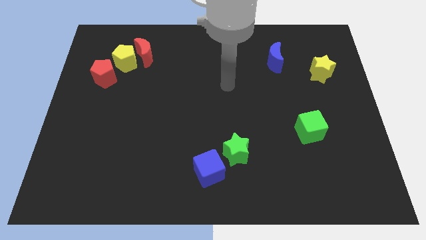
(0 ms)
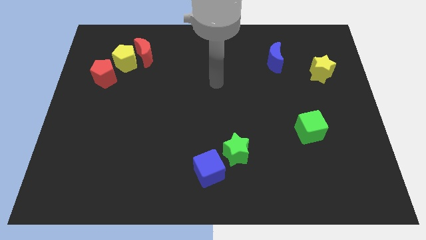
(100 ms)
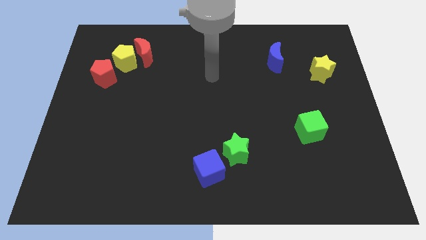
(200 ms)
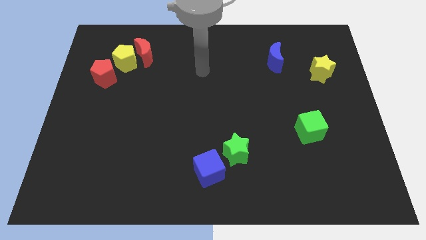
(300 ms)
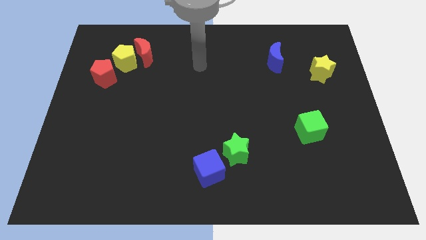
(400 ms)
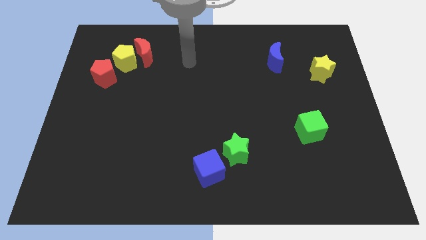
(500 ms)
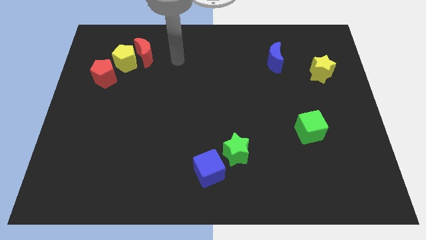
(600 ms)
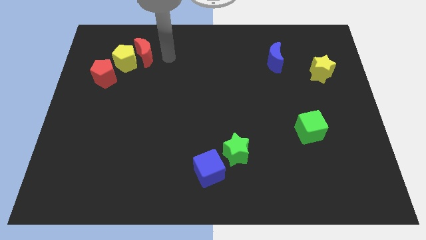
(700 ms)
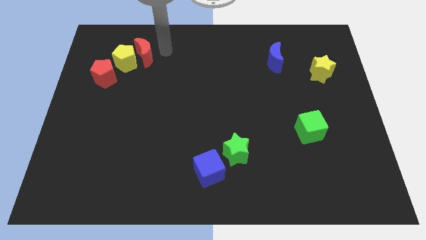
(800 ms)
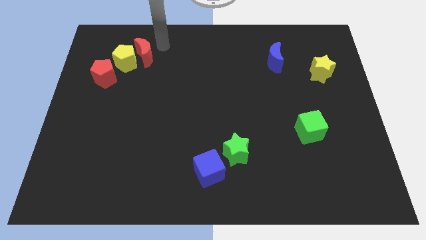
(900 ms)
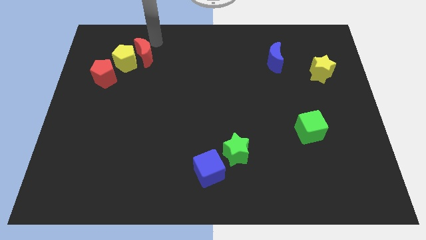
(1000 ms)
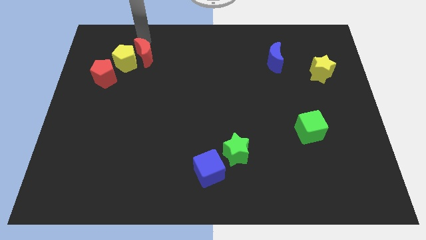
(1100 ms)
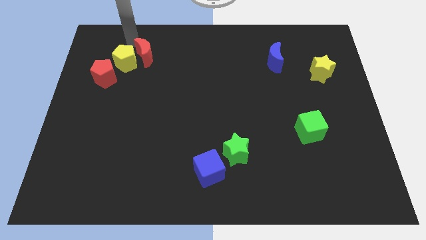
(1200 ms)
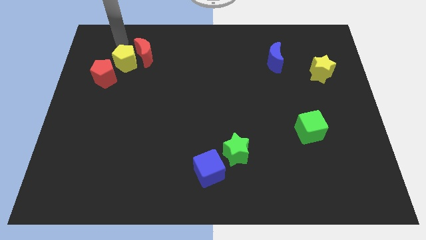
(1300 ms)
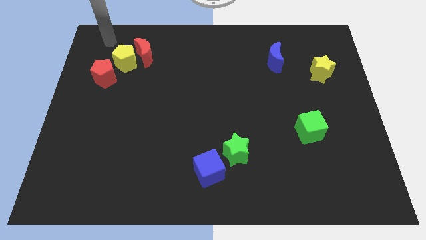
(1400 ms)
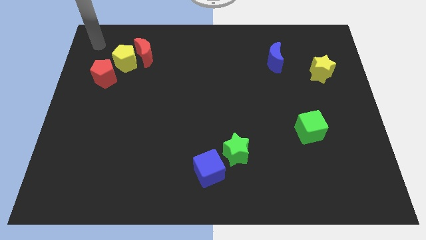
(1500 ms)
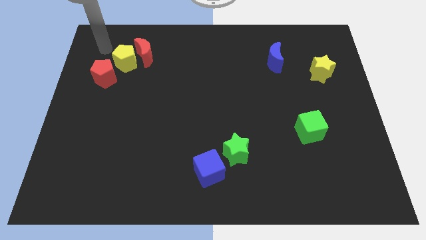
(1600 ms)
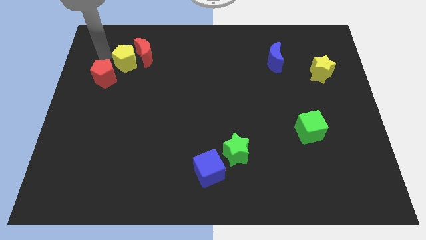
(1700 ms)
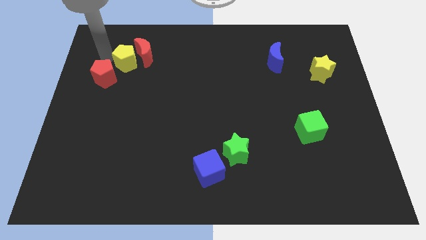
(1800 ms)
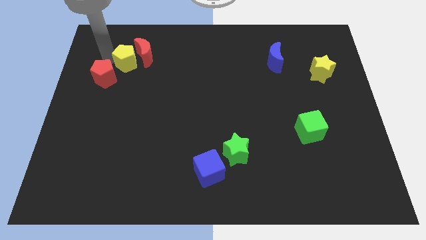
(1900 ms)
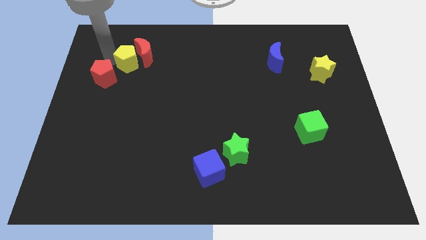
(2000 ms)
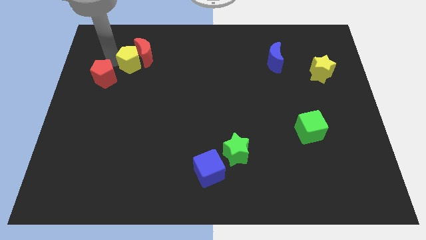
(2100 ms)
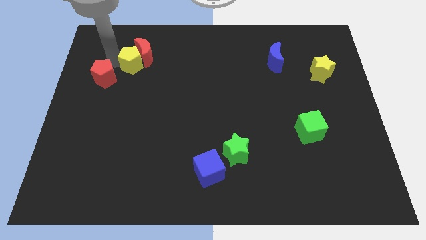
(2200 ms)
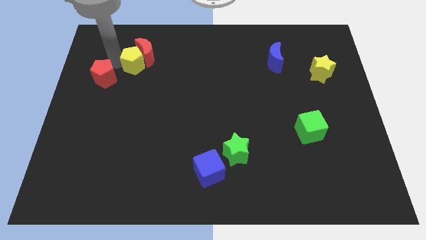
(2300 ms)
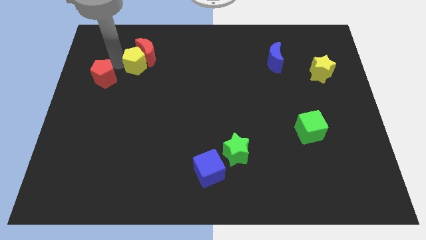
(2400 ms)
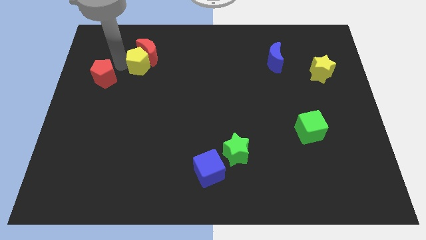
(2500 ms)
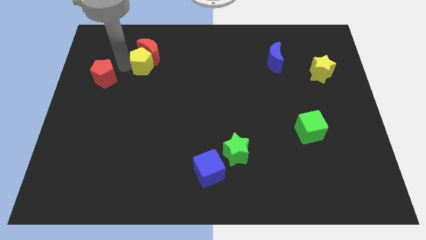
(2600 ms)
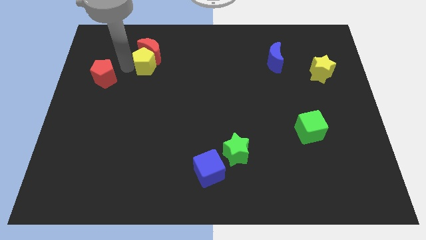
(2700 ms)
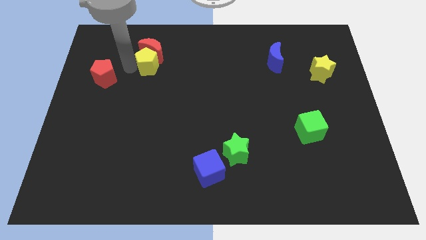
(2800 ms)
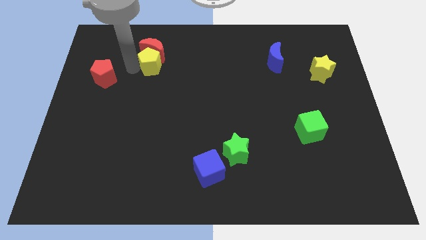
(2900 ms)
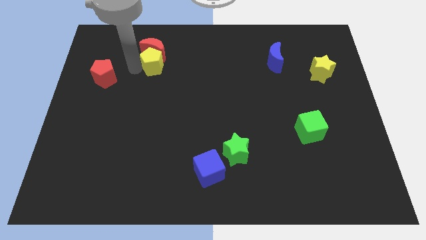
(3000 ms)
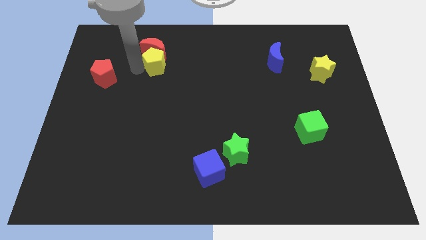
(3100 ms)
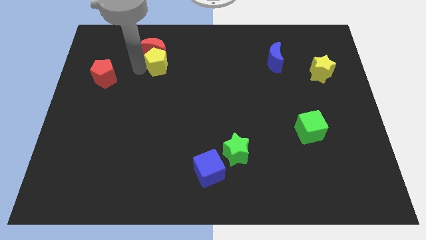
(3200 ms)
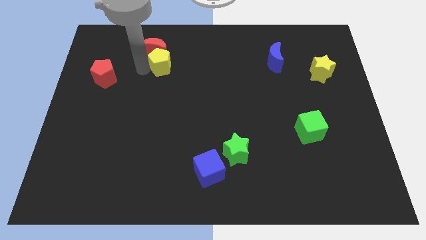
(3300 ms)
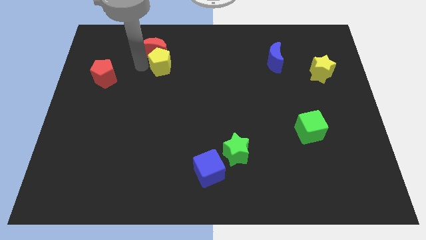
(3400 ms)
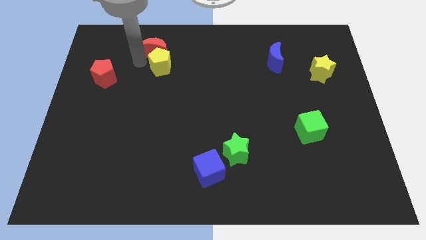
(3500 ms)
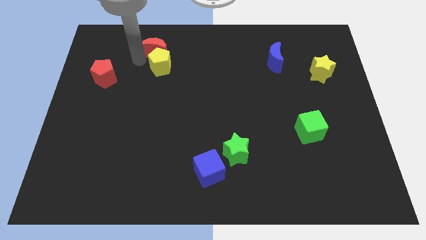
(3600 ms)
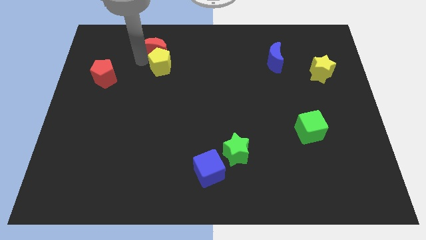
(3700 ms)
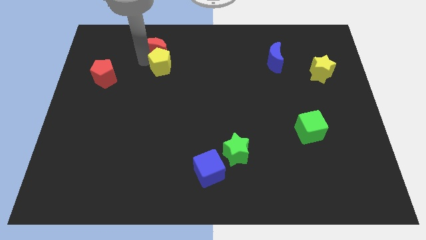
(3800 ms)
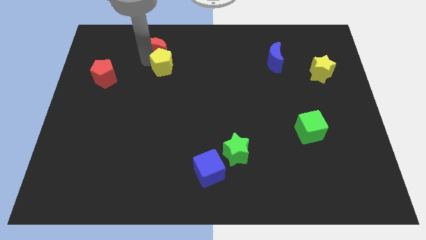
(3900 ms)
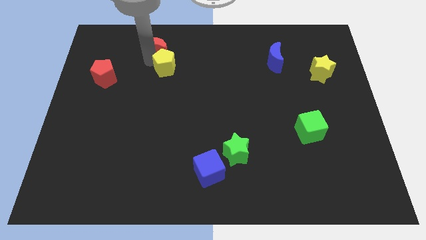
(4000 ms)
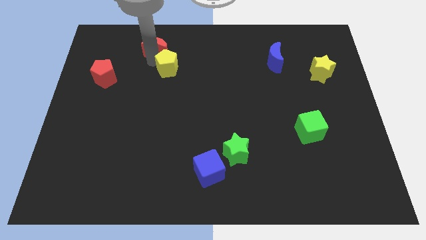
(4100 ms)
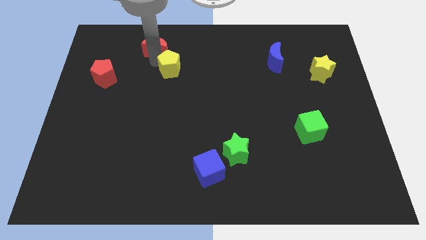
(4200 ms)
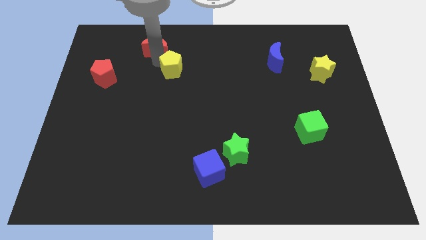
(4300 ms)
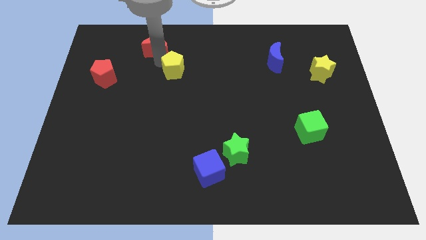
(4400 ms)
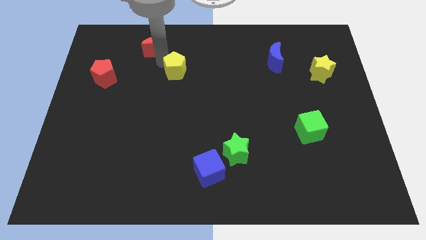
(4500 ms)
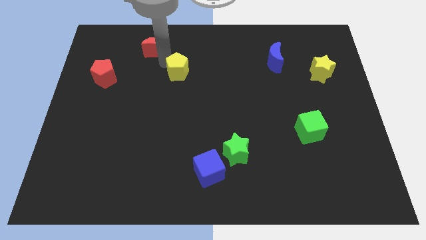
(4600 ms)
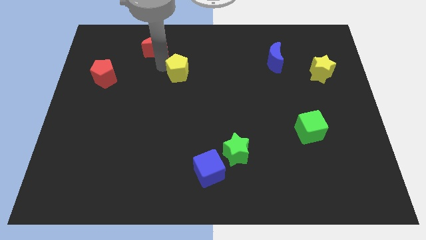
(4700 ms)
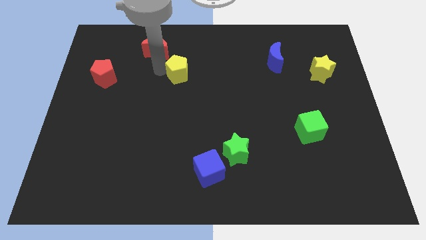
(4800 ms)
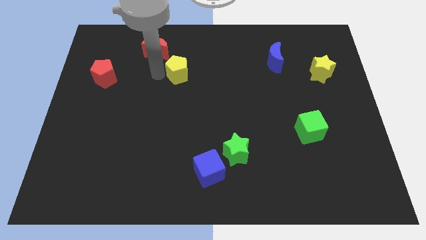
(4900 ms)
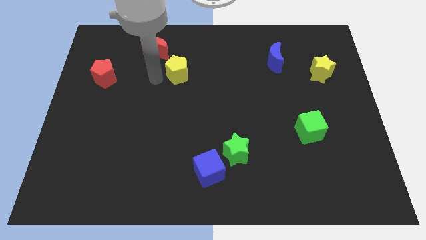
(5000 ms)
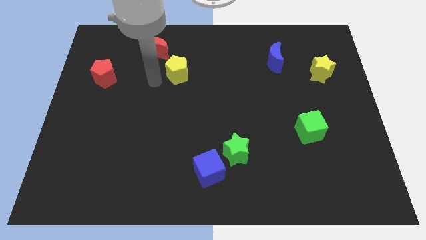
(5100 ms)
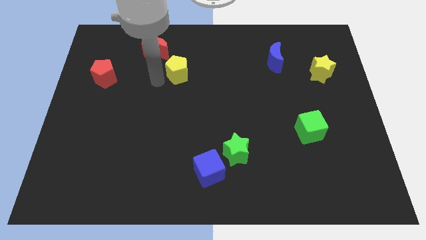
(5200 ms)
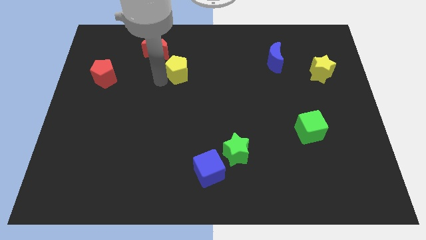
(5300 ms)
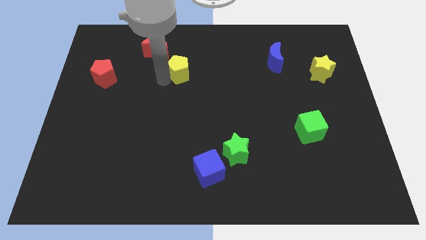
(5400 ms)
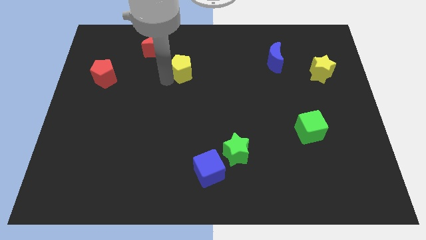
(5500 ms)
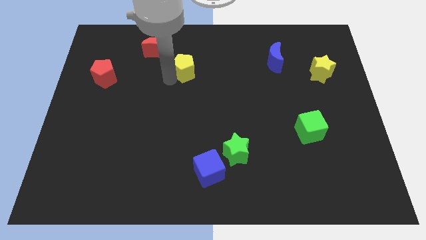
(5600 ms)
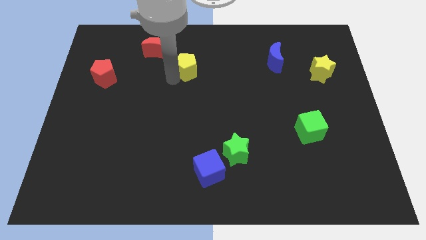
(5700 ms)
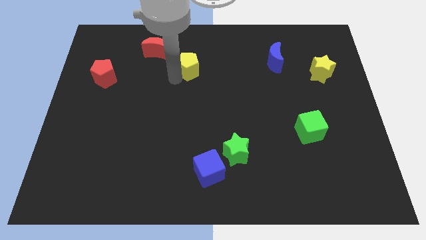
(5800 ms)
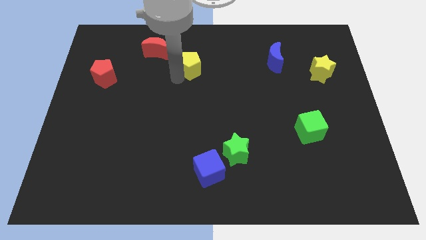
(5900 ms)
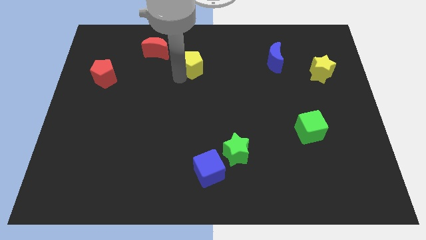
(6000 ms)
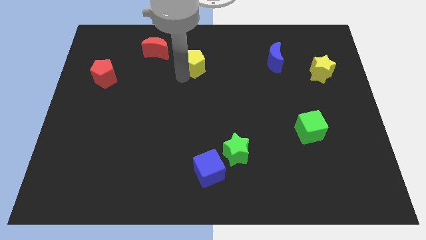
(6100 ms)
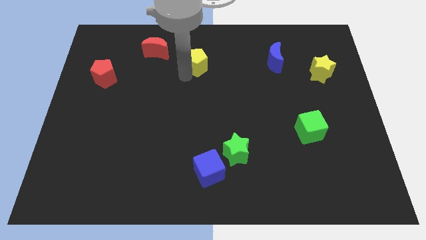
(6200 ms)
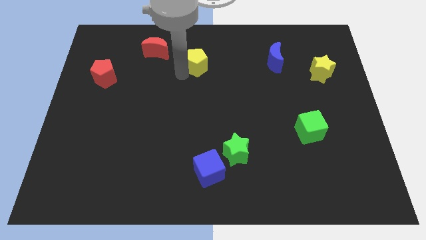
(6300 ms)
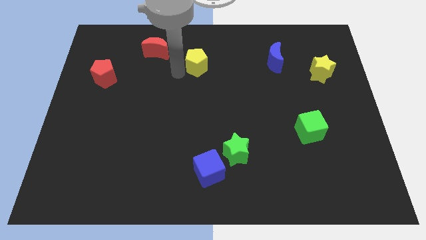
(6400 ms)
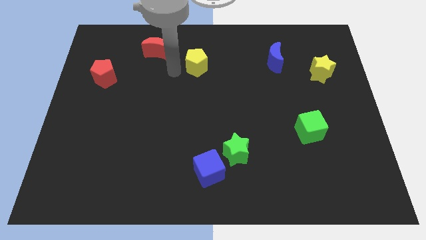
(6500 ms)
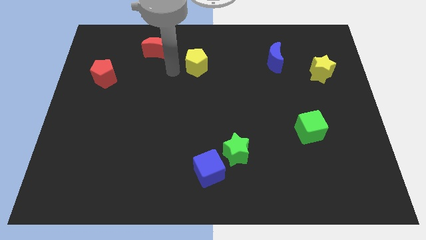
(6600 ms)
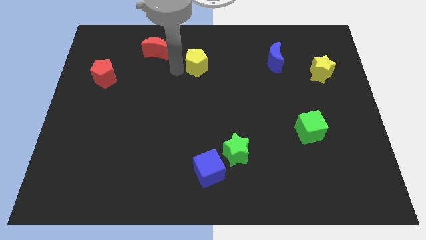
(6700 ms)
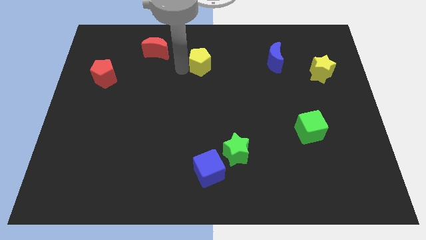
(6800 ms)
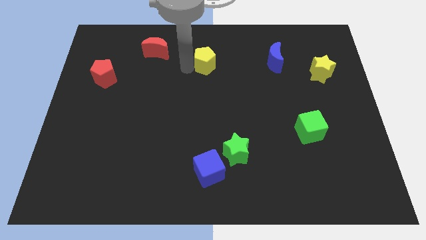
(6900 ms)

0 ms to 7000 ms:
slide the yellow pentagon right

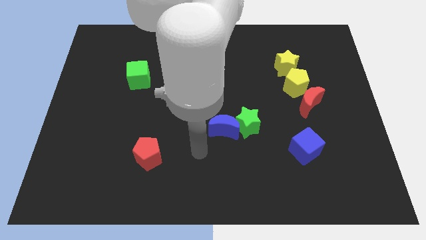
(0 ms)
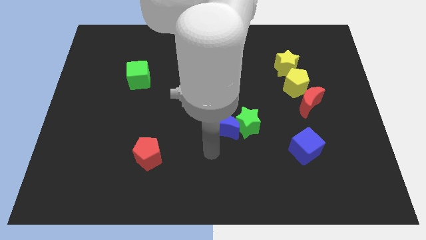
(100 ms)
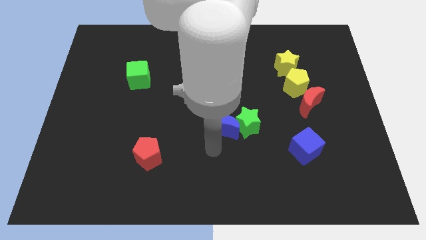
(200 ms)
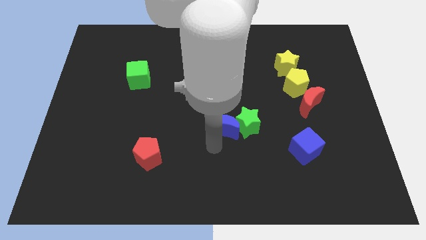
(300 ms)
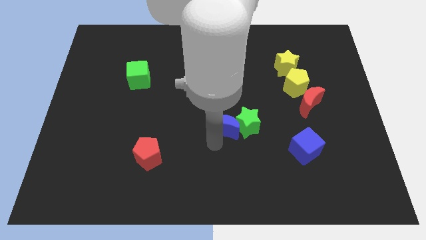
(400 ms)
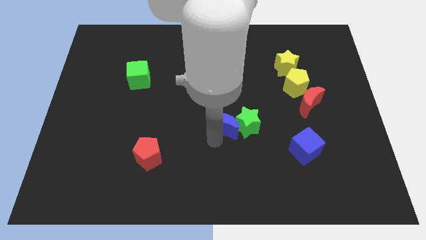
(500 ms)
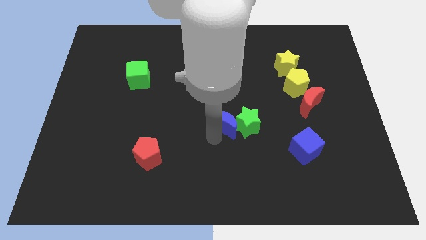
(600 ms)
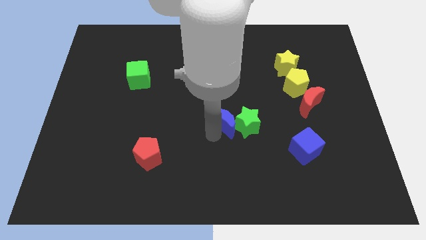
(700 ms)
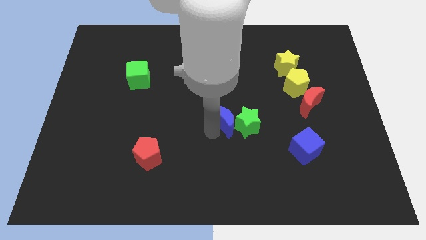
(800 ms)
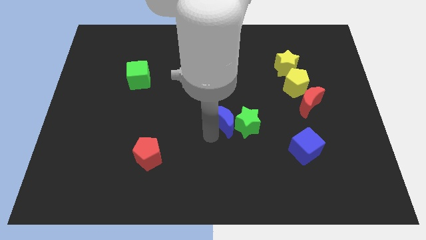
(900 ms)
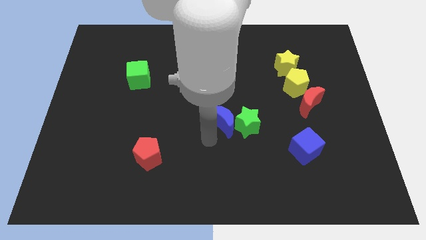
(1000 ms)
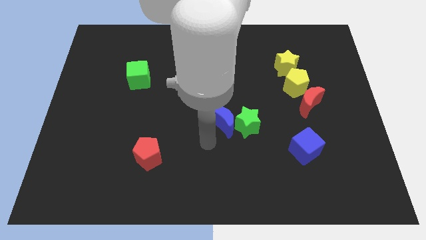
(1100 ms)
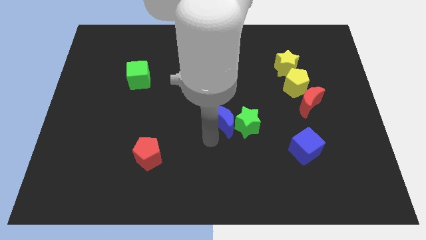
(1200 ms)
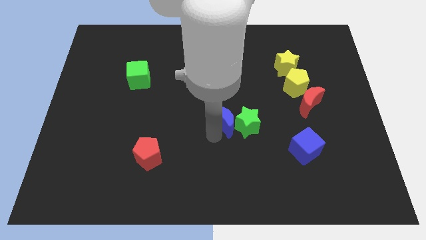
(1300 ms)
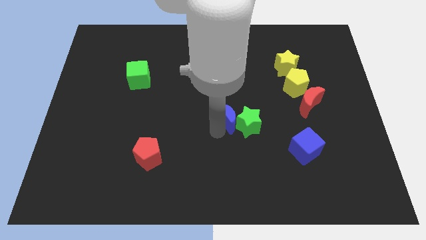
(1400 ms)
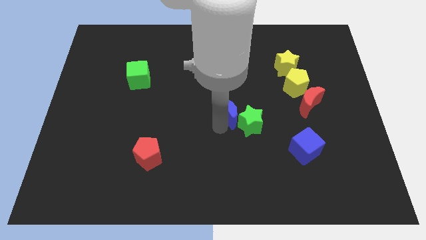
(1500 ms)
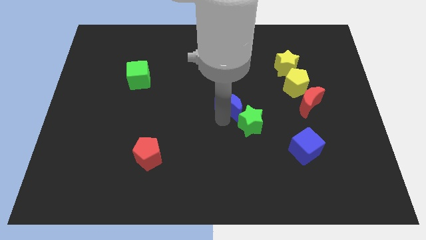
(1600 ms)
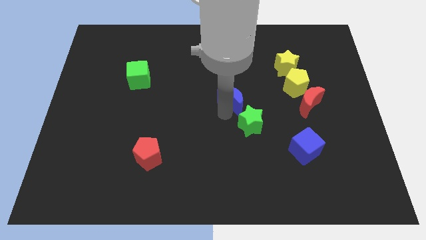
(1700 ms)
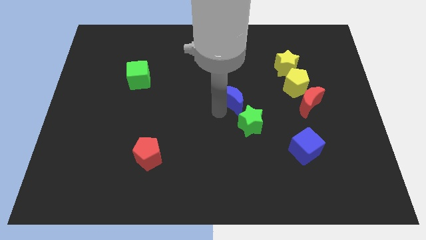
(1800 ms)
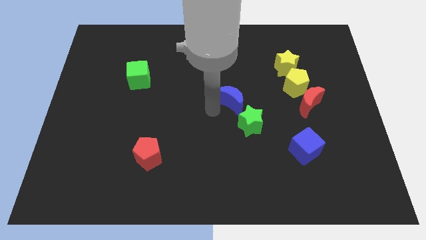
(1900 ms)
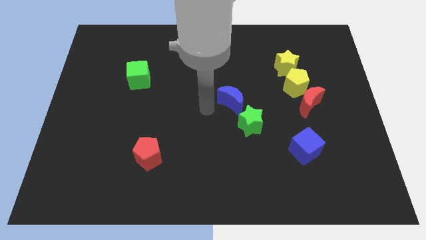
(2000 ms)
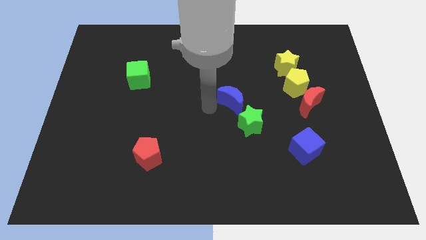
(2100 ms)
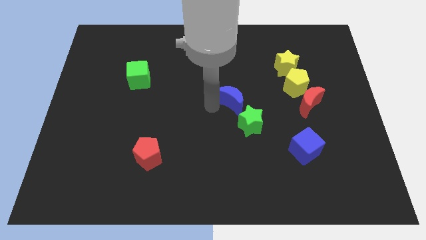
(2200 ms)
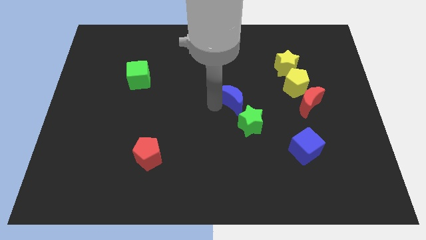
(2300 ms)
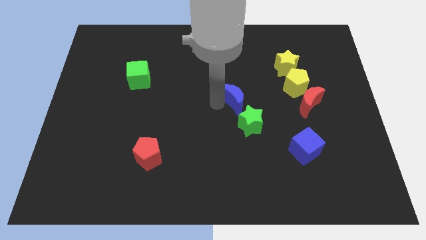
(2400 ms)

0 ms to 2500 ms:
slightly push the blue moon up and then to the right
